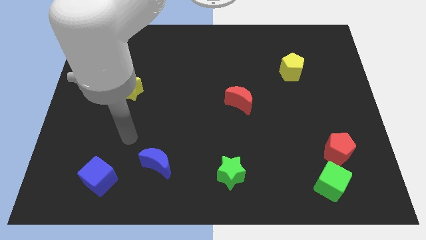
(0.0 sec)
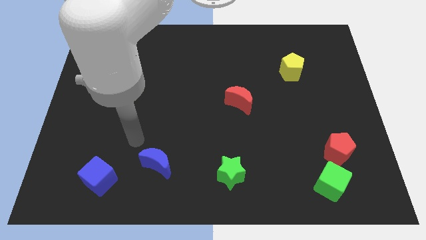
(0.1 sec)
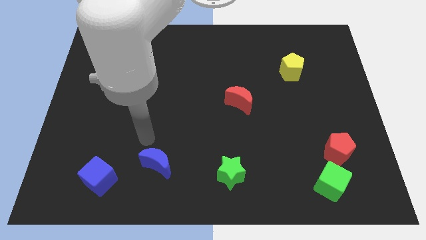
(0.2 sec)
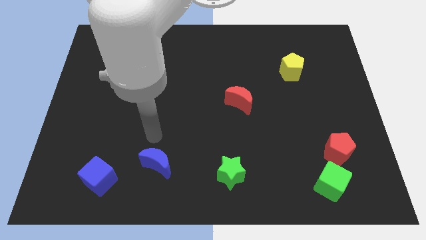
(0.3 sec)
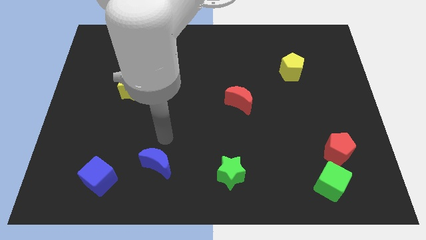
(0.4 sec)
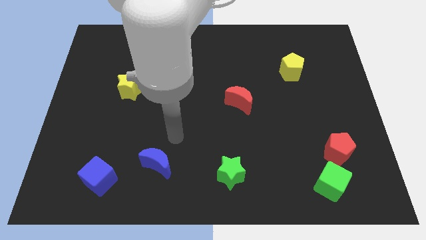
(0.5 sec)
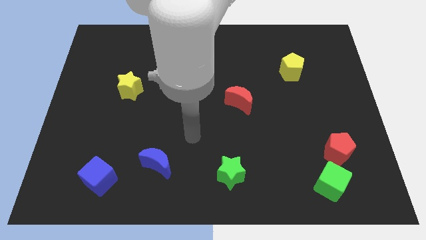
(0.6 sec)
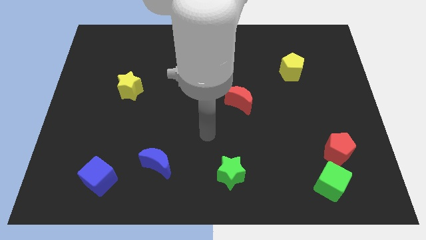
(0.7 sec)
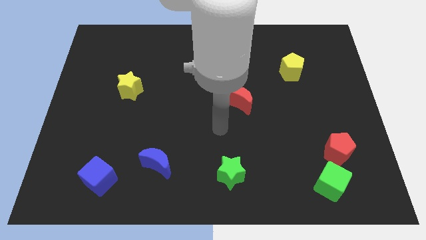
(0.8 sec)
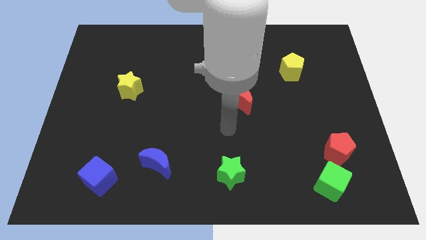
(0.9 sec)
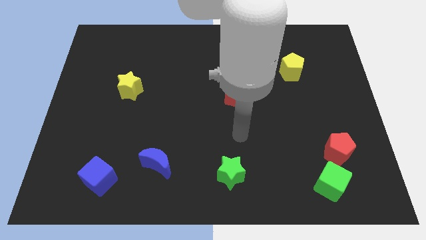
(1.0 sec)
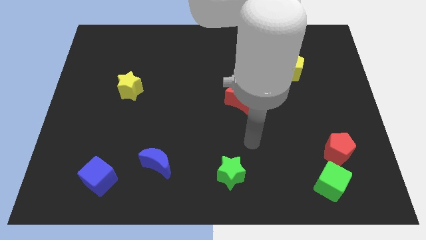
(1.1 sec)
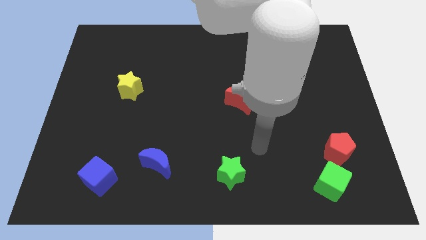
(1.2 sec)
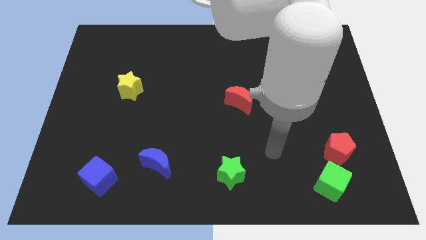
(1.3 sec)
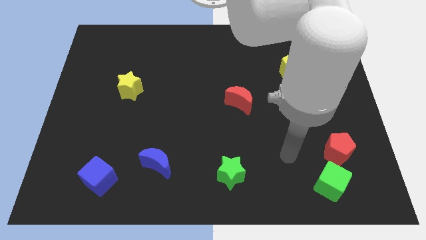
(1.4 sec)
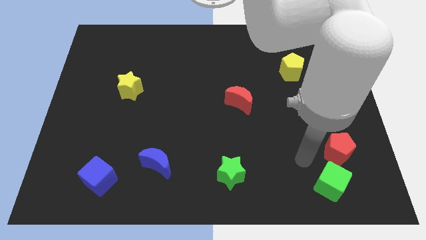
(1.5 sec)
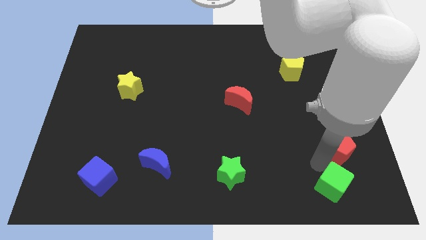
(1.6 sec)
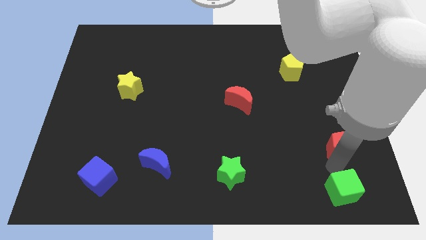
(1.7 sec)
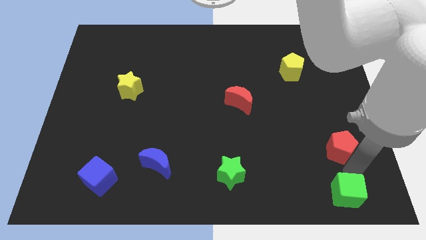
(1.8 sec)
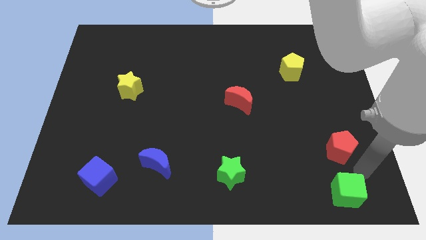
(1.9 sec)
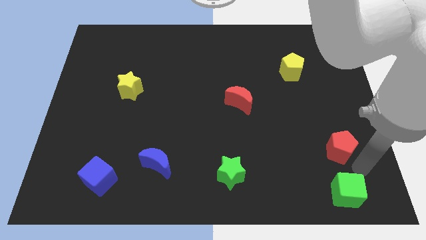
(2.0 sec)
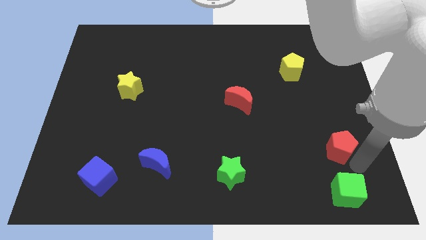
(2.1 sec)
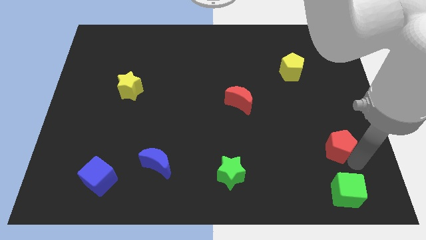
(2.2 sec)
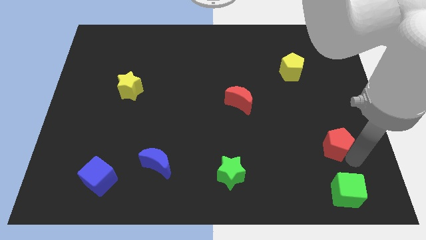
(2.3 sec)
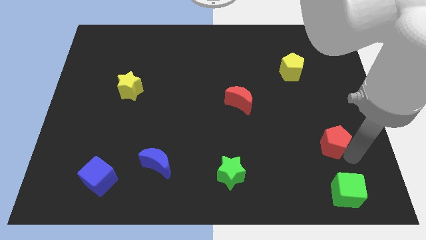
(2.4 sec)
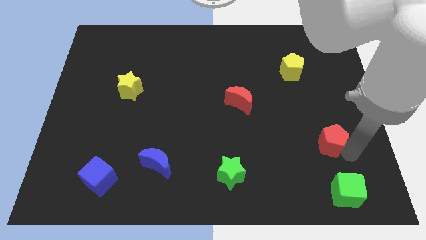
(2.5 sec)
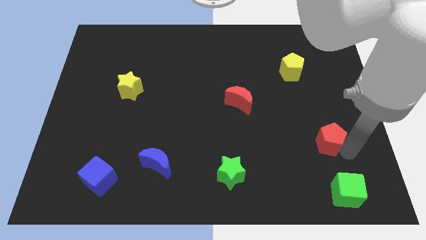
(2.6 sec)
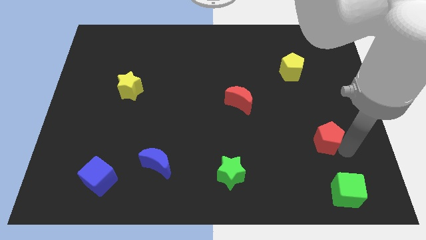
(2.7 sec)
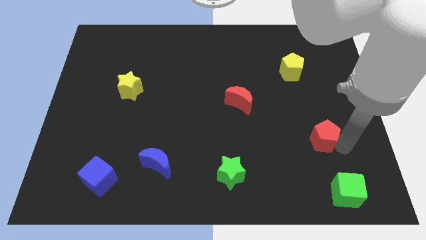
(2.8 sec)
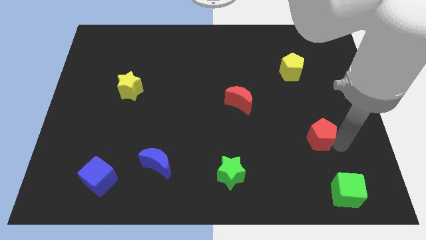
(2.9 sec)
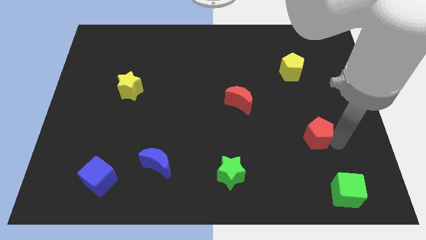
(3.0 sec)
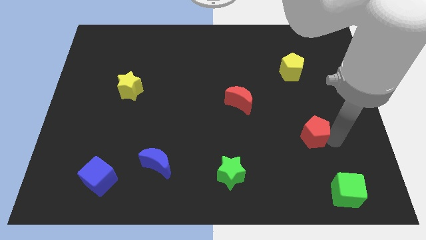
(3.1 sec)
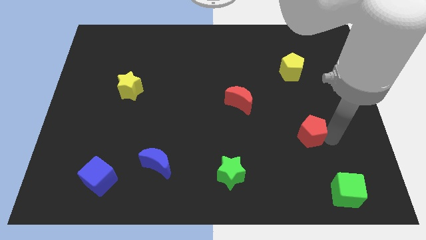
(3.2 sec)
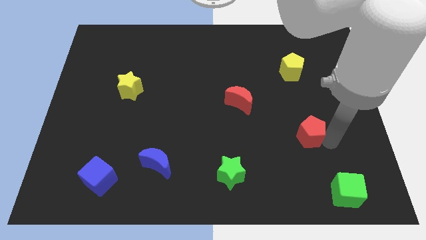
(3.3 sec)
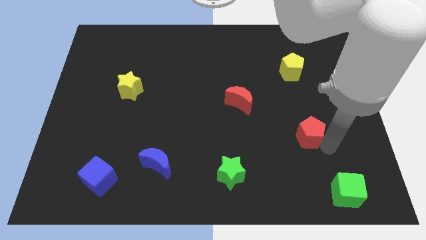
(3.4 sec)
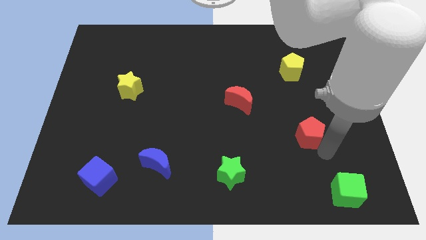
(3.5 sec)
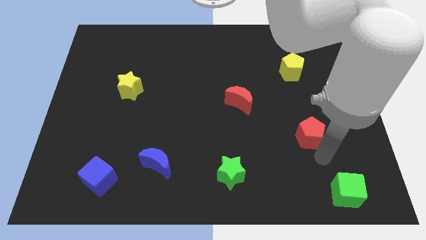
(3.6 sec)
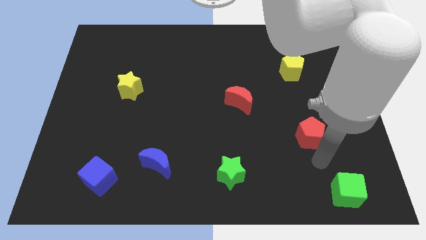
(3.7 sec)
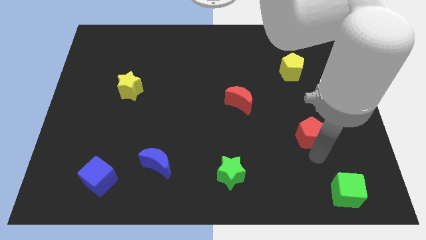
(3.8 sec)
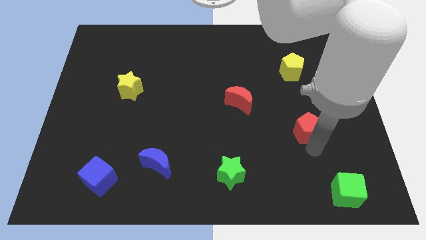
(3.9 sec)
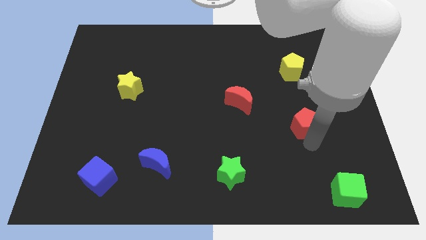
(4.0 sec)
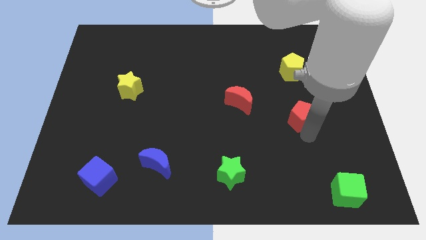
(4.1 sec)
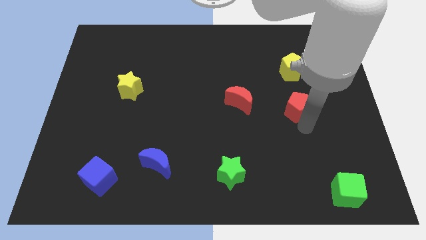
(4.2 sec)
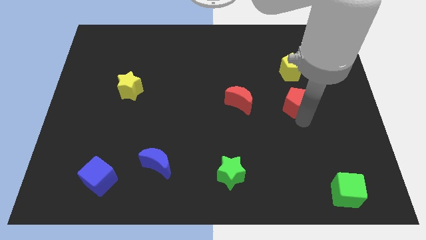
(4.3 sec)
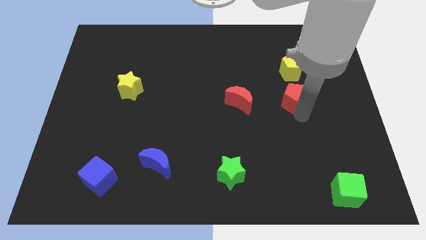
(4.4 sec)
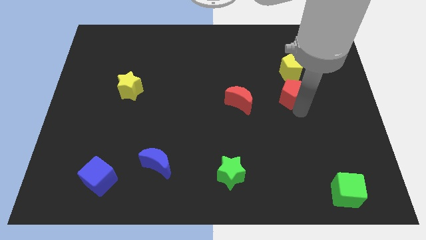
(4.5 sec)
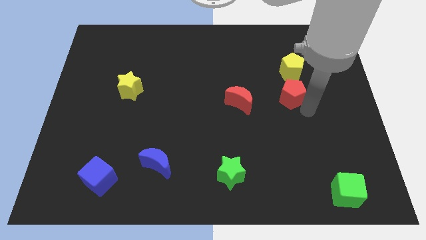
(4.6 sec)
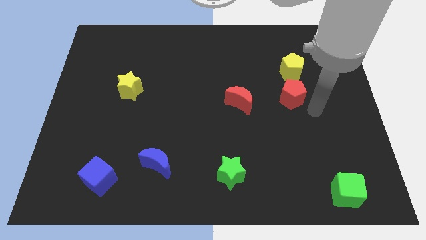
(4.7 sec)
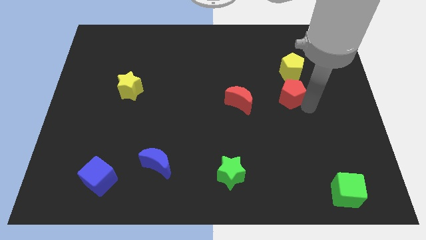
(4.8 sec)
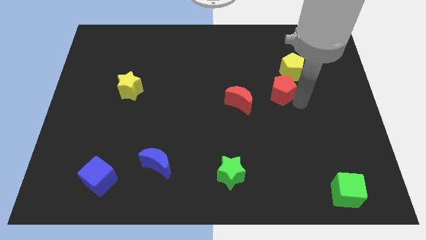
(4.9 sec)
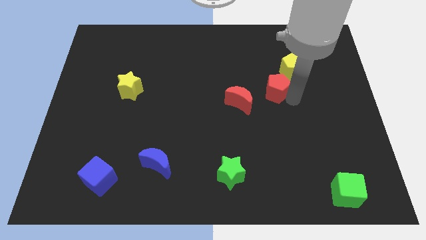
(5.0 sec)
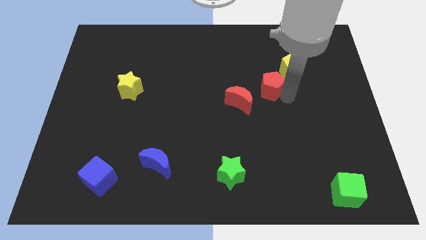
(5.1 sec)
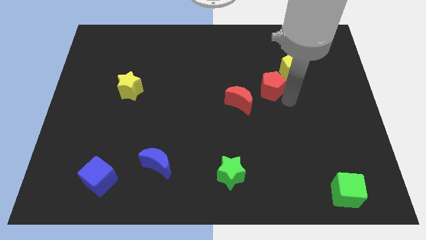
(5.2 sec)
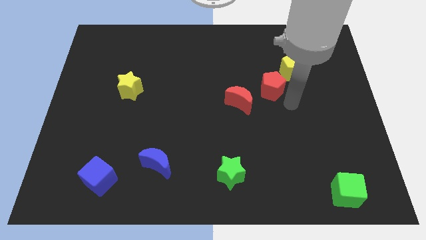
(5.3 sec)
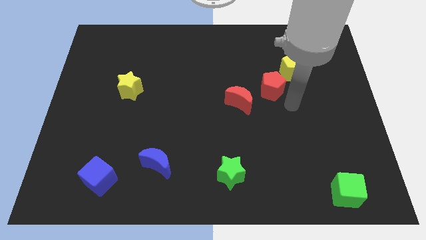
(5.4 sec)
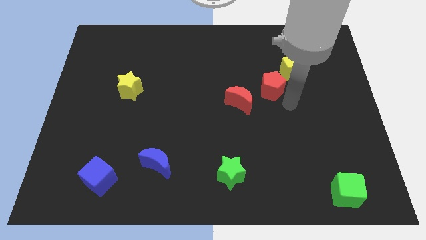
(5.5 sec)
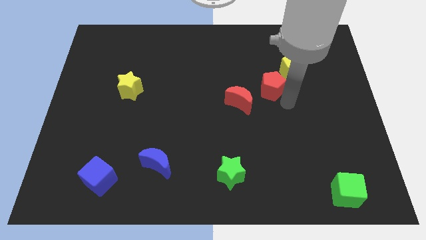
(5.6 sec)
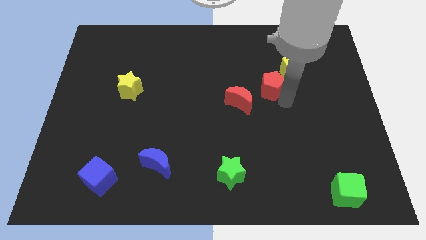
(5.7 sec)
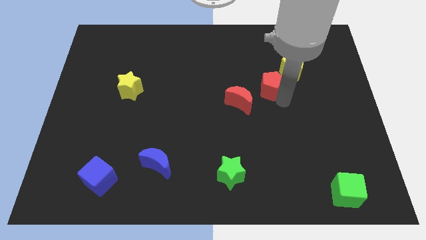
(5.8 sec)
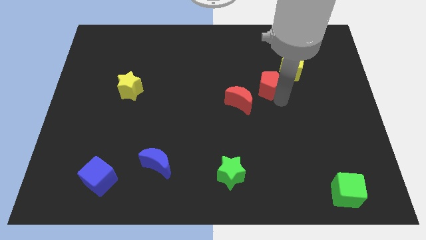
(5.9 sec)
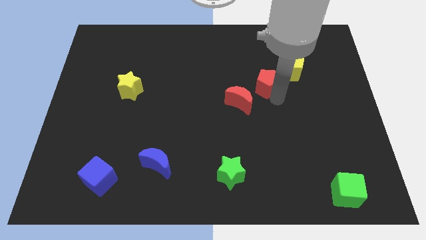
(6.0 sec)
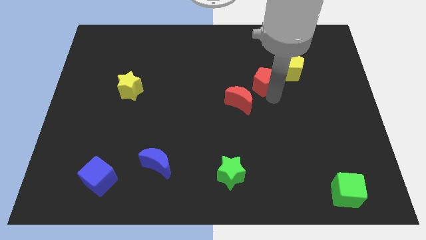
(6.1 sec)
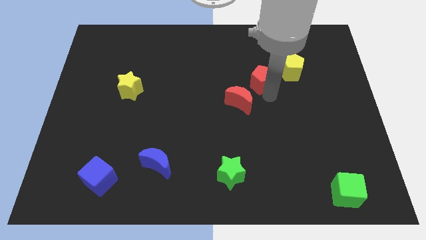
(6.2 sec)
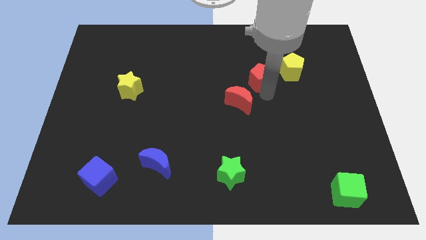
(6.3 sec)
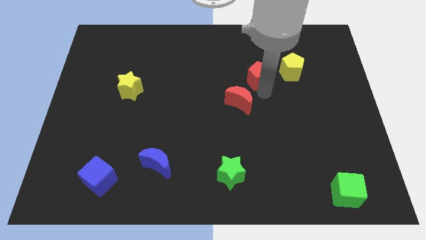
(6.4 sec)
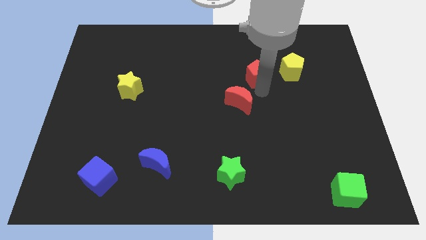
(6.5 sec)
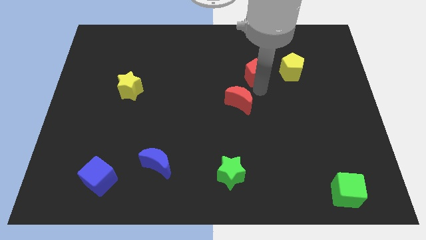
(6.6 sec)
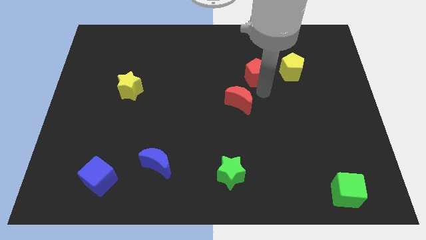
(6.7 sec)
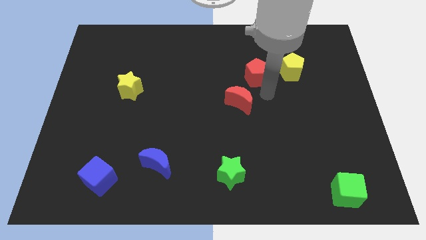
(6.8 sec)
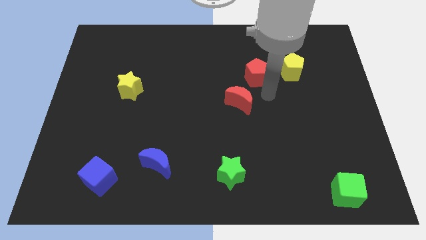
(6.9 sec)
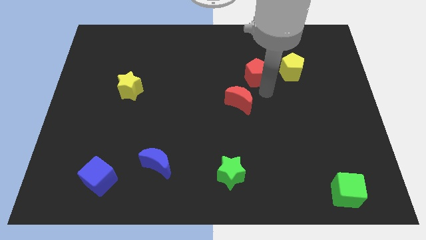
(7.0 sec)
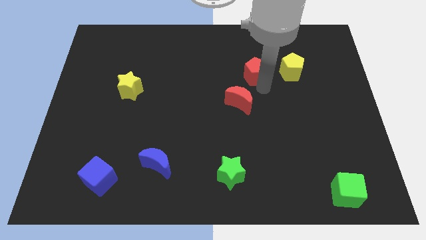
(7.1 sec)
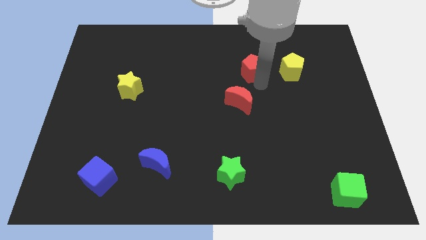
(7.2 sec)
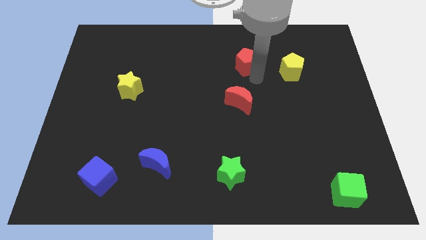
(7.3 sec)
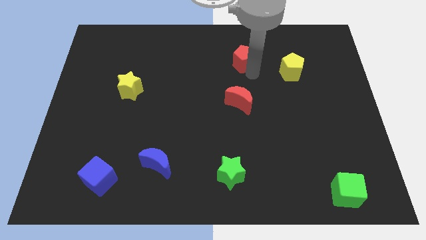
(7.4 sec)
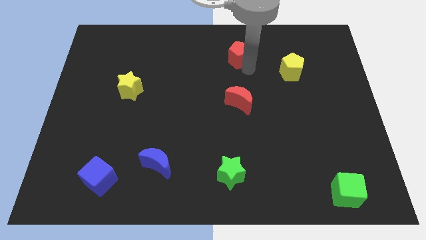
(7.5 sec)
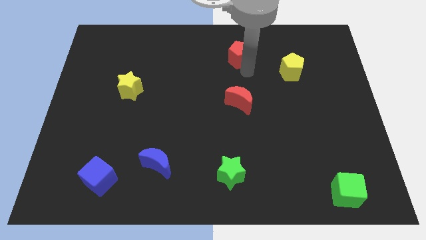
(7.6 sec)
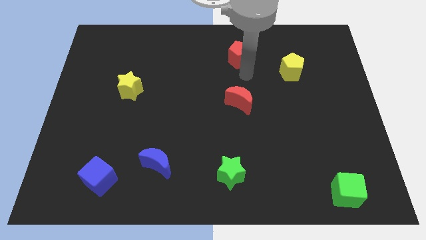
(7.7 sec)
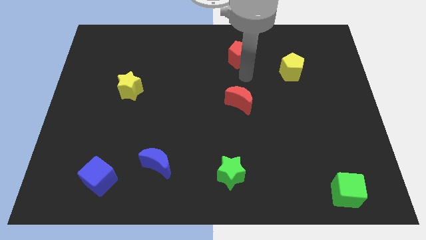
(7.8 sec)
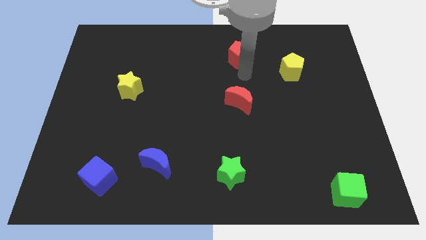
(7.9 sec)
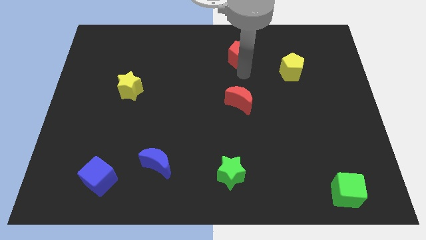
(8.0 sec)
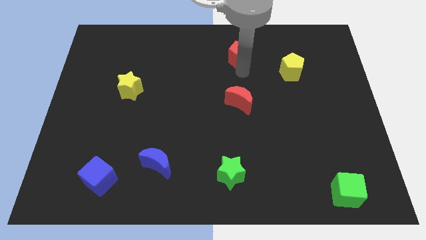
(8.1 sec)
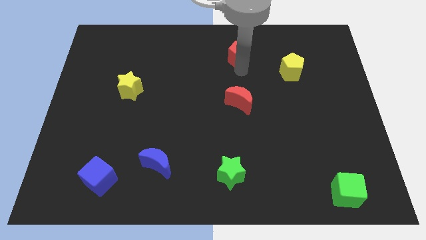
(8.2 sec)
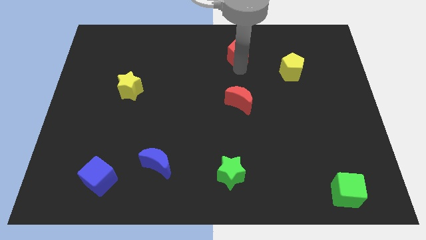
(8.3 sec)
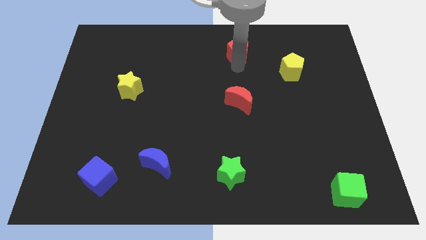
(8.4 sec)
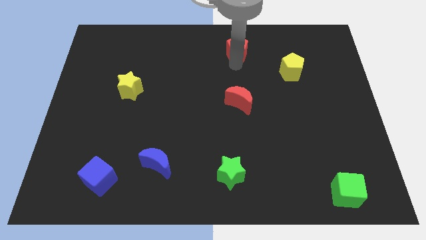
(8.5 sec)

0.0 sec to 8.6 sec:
put the red pentagon to the towards your base
